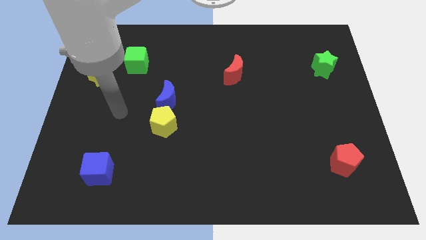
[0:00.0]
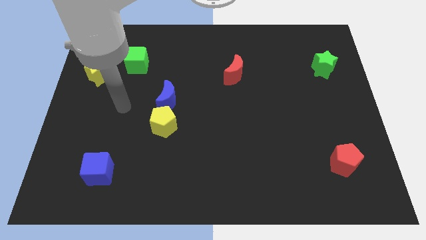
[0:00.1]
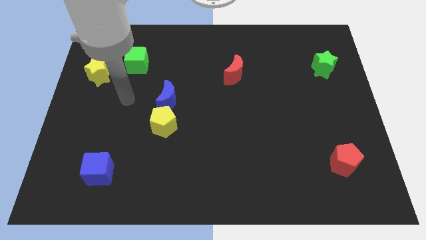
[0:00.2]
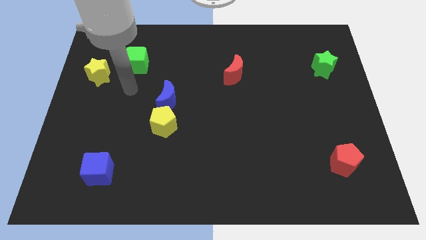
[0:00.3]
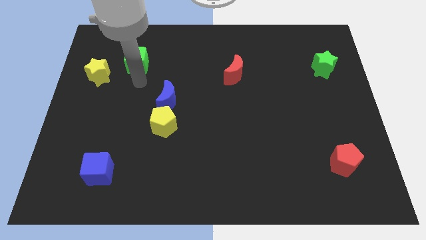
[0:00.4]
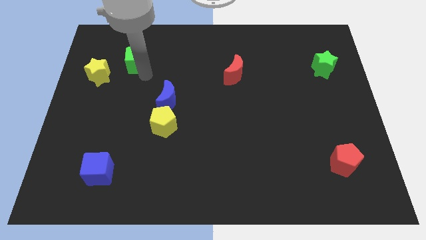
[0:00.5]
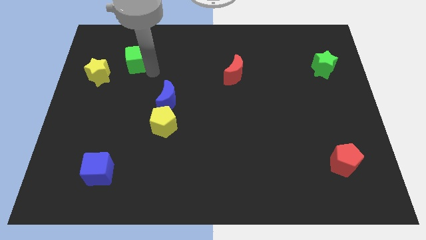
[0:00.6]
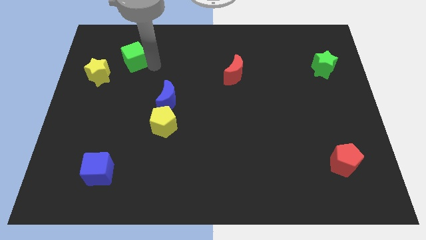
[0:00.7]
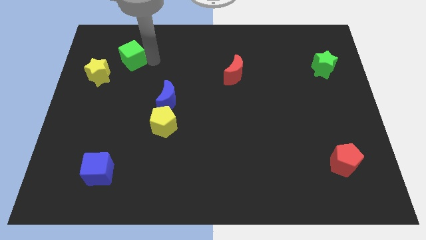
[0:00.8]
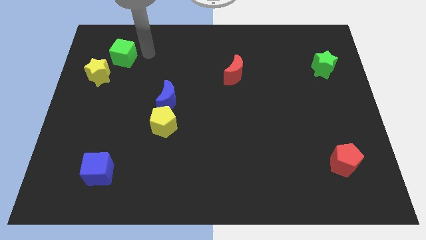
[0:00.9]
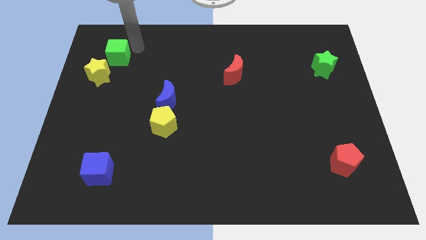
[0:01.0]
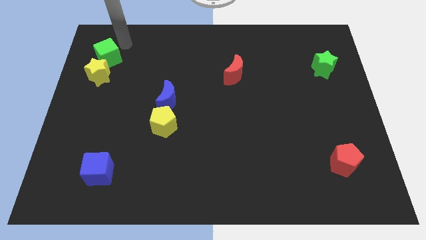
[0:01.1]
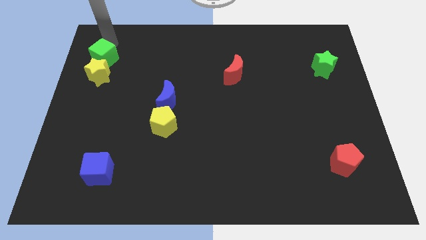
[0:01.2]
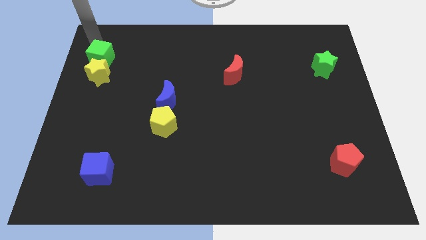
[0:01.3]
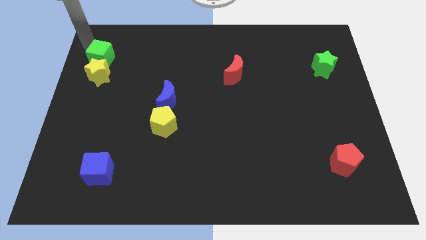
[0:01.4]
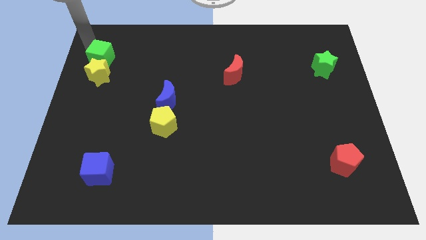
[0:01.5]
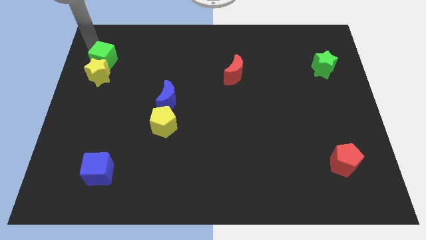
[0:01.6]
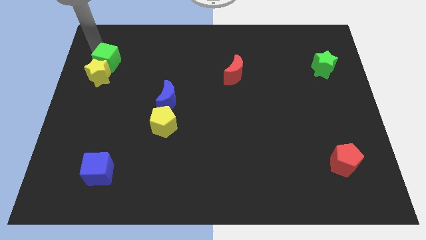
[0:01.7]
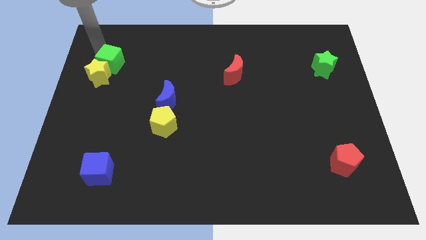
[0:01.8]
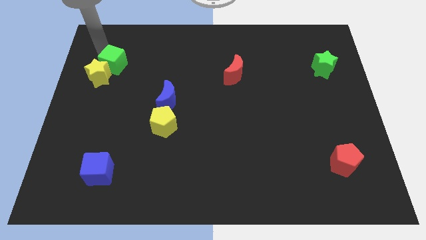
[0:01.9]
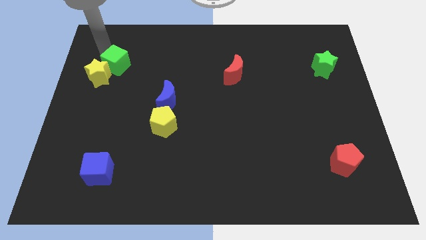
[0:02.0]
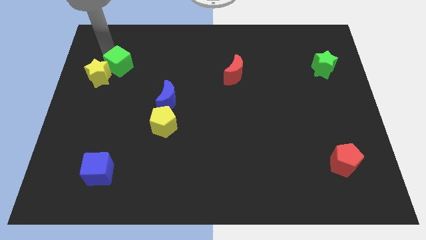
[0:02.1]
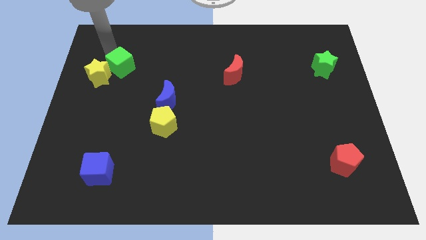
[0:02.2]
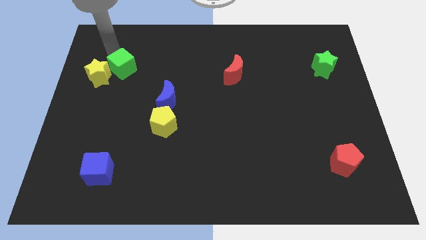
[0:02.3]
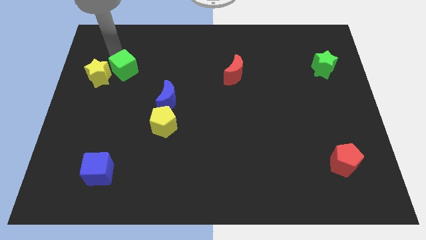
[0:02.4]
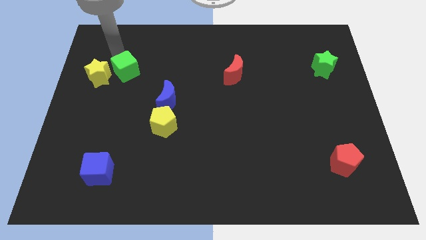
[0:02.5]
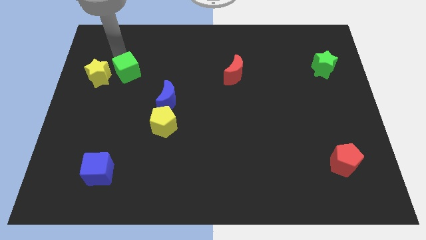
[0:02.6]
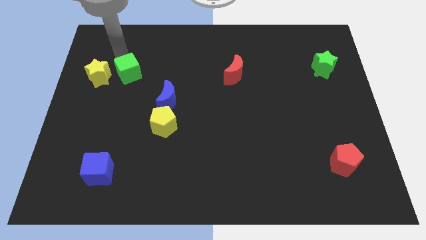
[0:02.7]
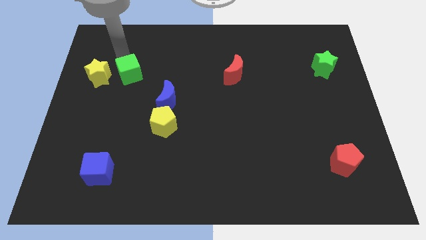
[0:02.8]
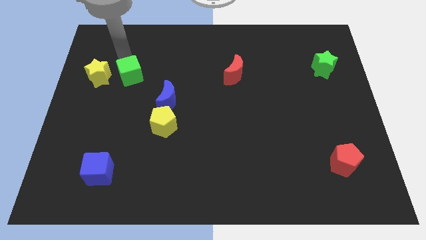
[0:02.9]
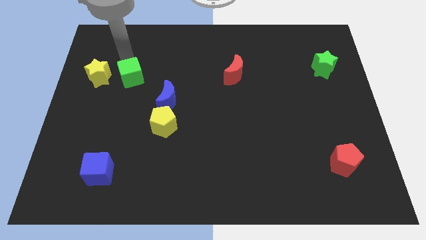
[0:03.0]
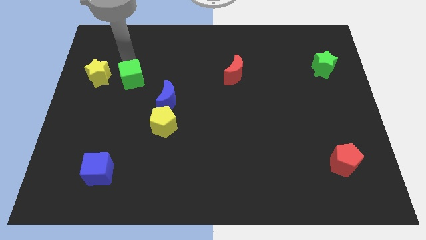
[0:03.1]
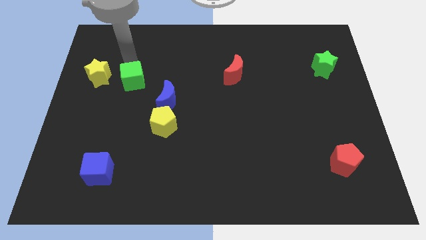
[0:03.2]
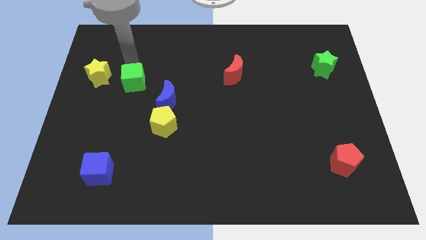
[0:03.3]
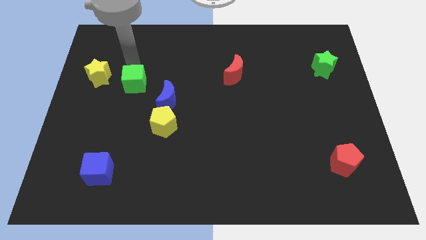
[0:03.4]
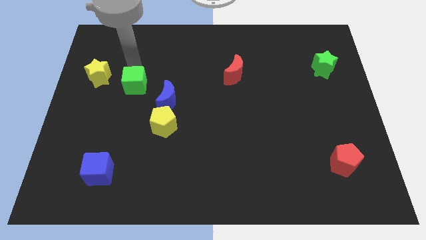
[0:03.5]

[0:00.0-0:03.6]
slide the green cube down a bit

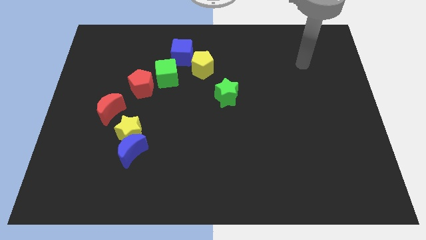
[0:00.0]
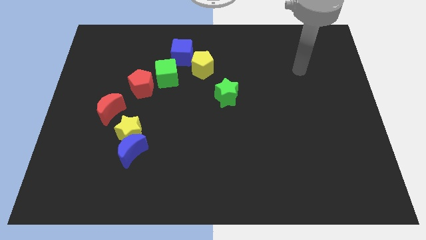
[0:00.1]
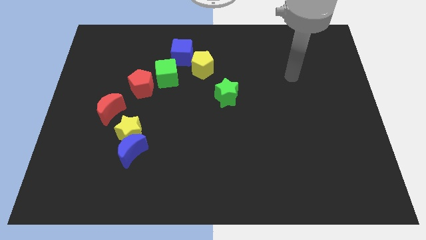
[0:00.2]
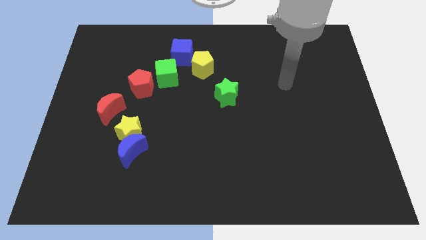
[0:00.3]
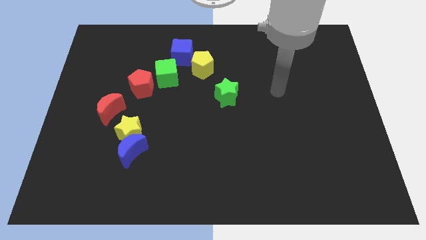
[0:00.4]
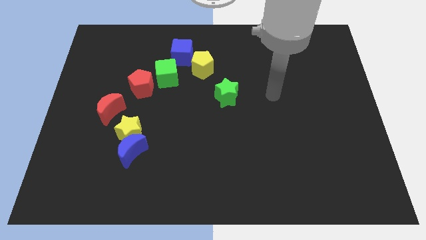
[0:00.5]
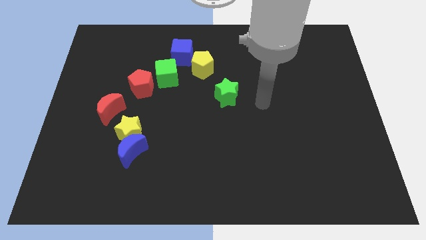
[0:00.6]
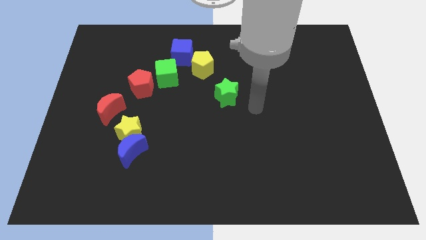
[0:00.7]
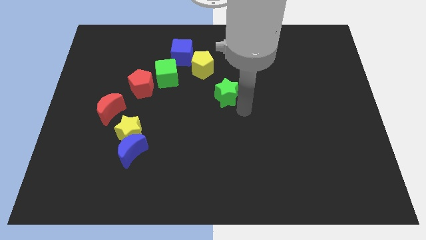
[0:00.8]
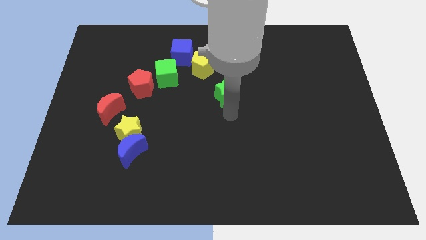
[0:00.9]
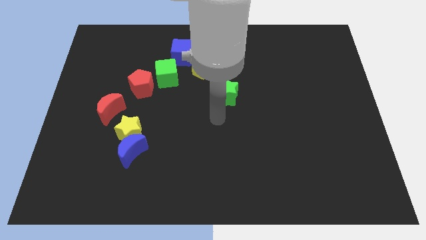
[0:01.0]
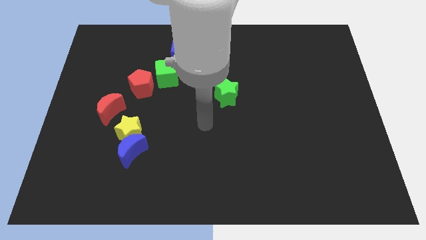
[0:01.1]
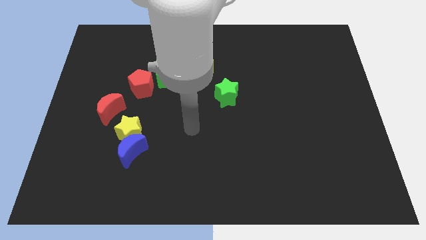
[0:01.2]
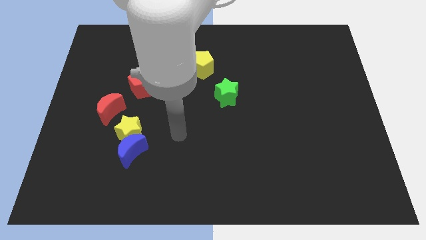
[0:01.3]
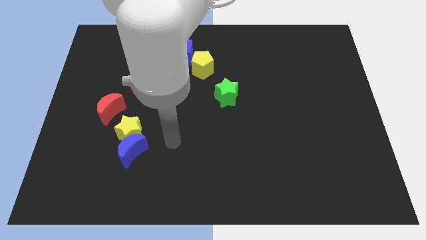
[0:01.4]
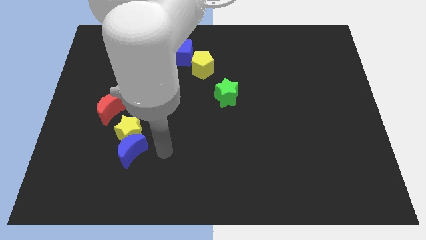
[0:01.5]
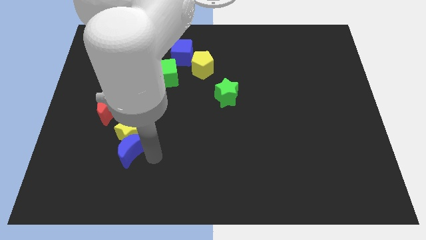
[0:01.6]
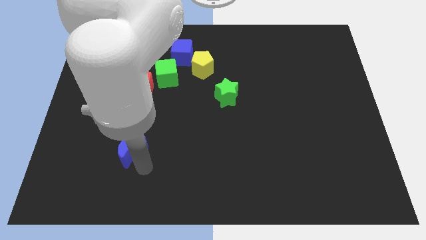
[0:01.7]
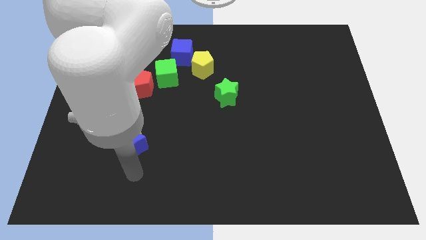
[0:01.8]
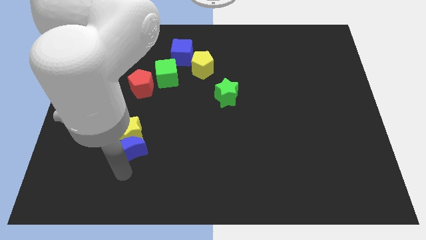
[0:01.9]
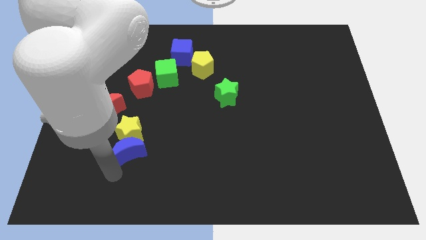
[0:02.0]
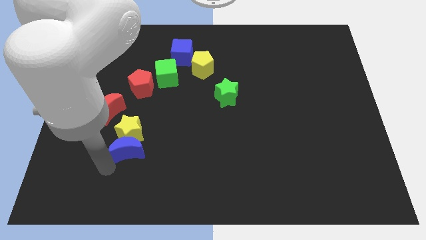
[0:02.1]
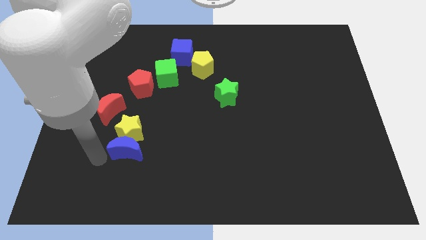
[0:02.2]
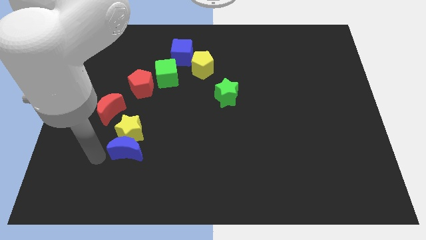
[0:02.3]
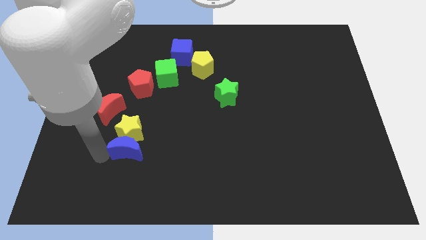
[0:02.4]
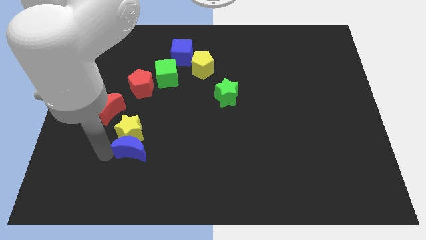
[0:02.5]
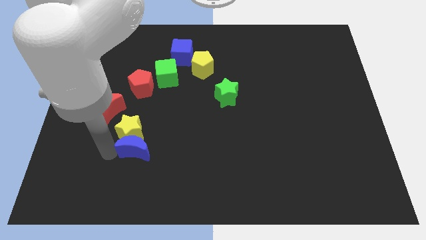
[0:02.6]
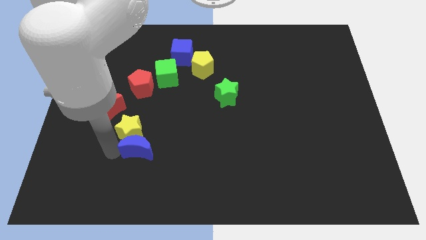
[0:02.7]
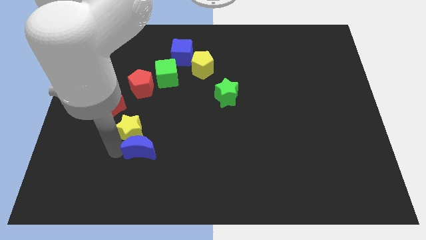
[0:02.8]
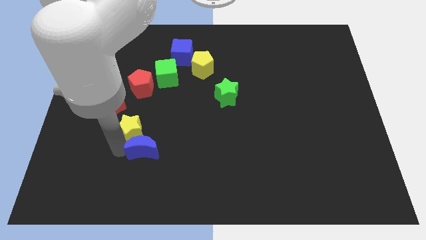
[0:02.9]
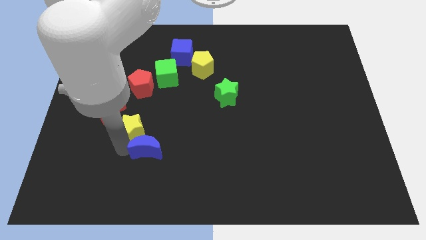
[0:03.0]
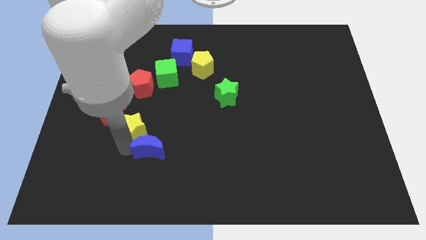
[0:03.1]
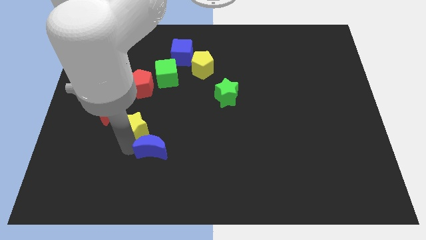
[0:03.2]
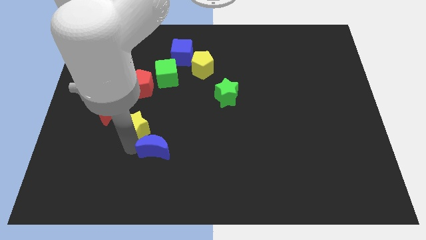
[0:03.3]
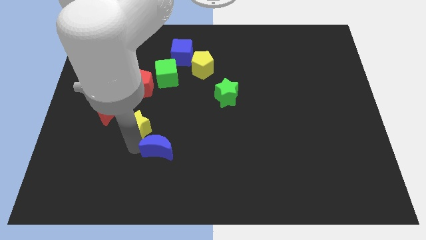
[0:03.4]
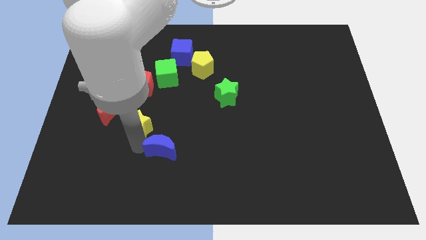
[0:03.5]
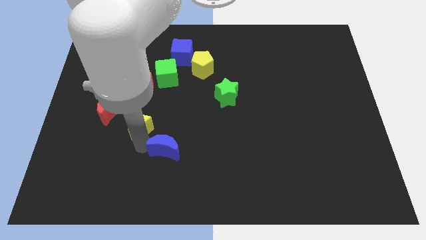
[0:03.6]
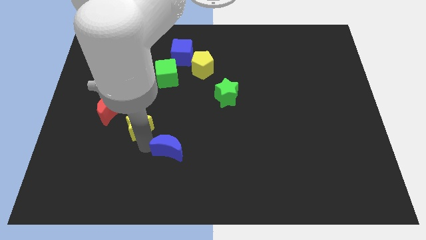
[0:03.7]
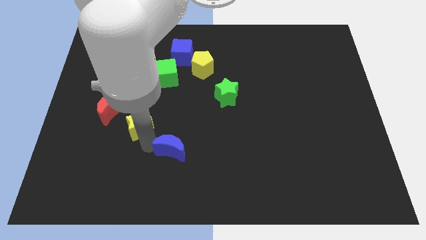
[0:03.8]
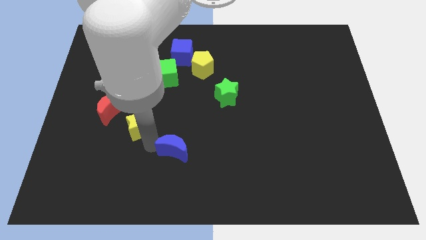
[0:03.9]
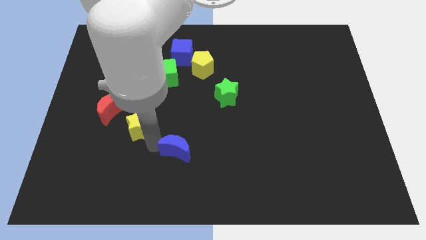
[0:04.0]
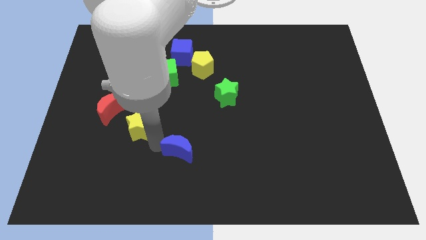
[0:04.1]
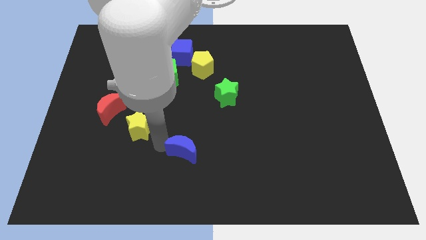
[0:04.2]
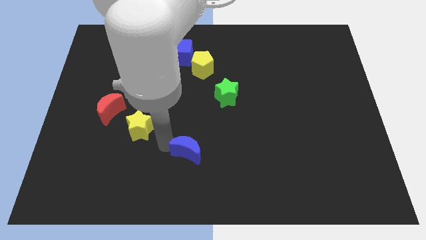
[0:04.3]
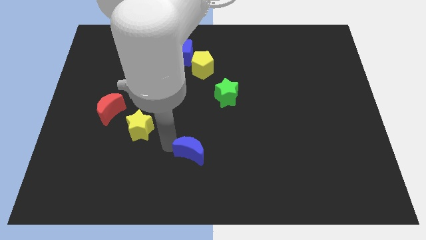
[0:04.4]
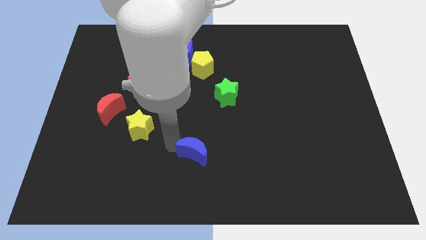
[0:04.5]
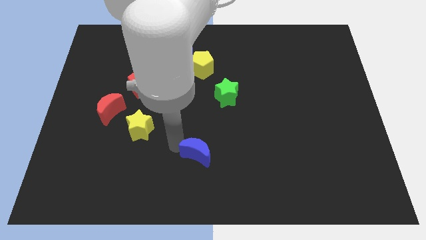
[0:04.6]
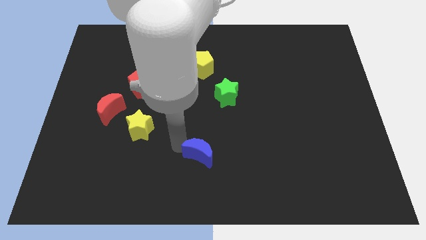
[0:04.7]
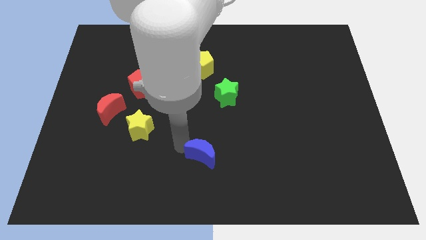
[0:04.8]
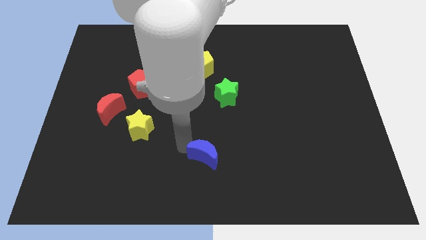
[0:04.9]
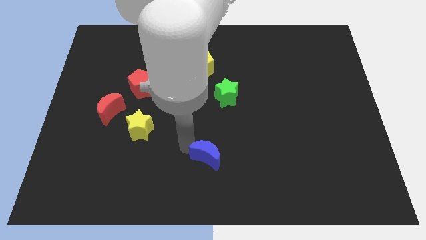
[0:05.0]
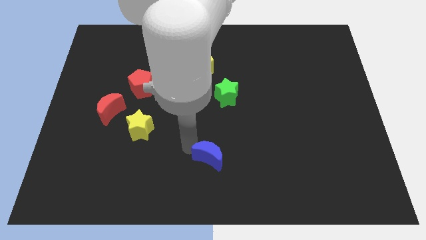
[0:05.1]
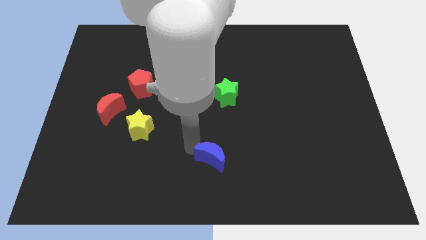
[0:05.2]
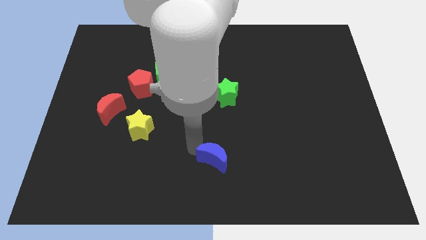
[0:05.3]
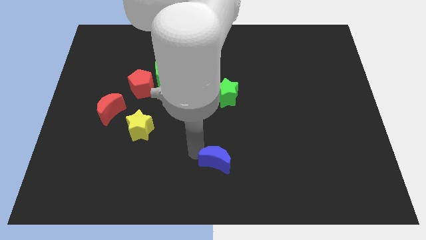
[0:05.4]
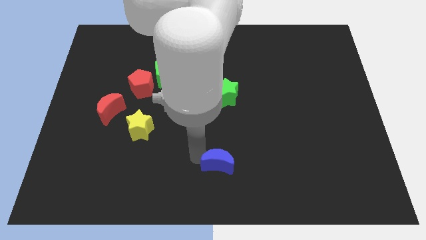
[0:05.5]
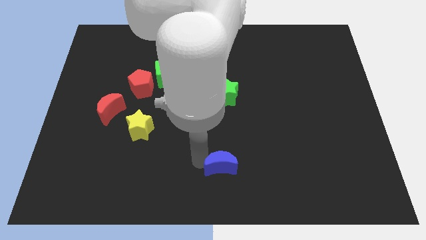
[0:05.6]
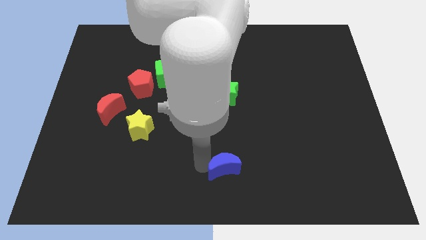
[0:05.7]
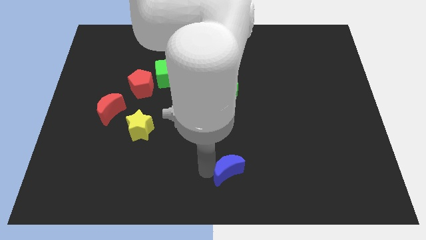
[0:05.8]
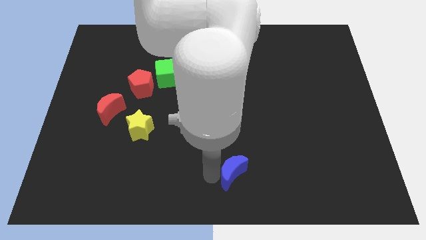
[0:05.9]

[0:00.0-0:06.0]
push the blue moon right
